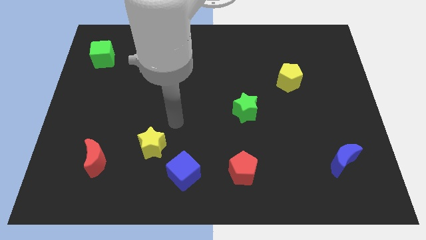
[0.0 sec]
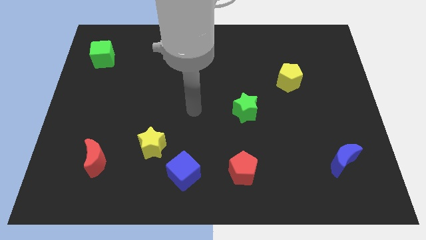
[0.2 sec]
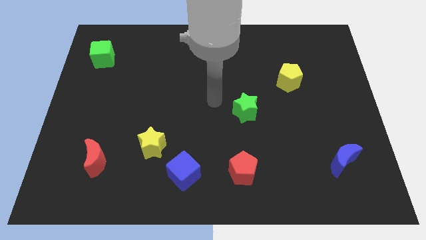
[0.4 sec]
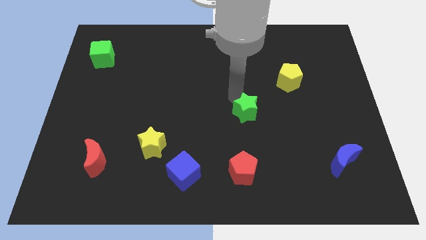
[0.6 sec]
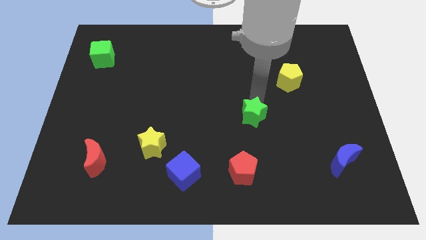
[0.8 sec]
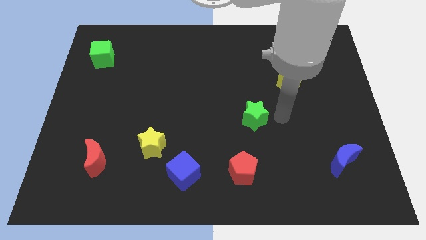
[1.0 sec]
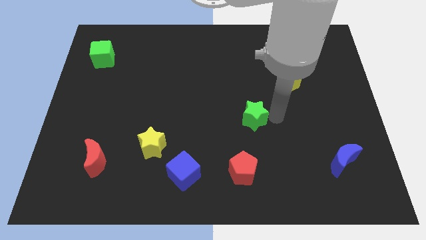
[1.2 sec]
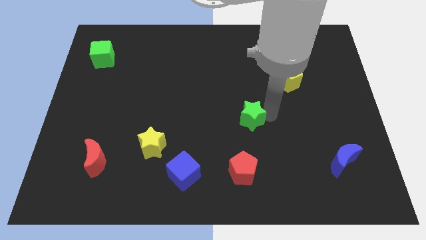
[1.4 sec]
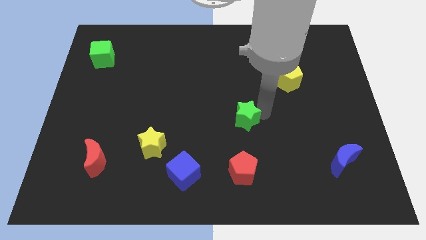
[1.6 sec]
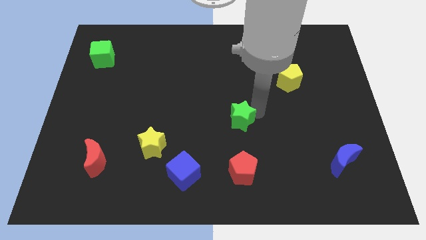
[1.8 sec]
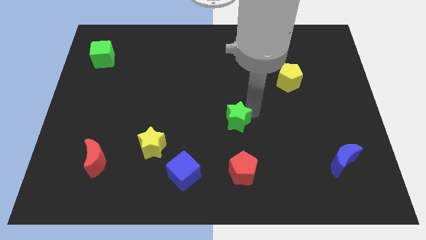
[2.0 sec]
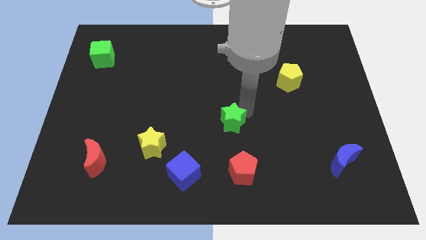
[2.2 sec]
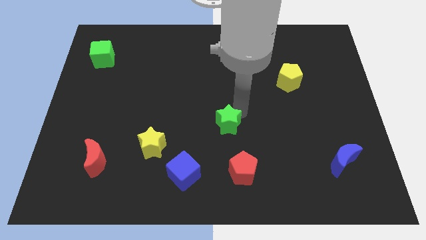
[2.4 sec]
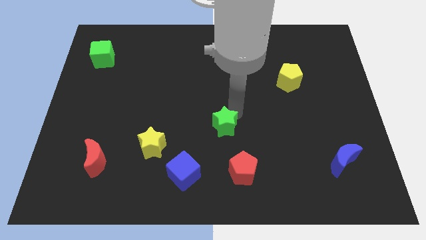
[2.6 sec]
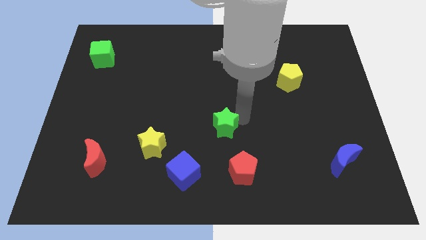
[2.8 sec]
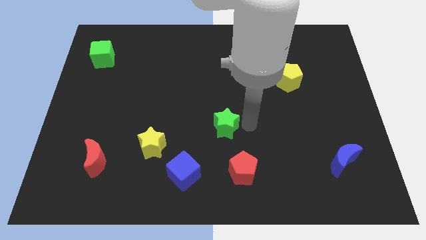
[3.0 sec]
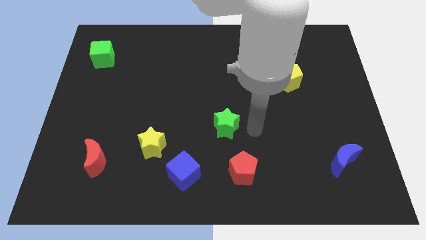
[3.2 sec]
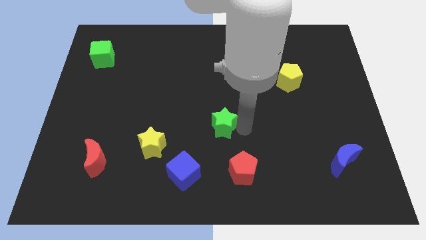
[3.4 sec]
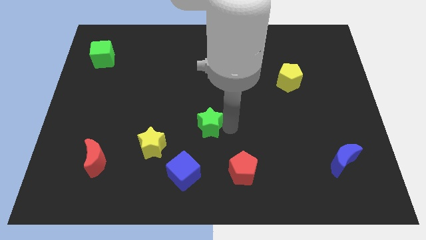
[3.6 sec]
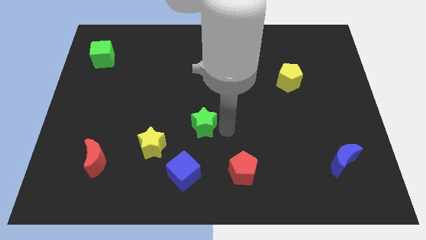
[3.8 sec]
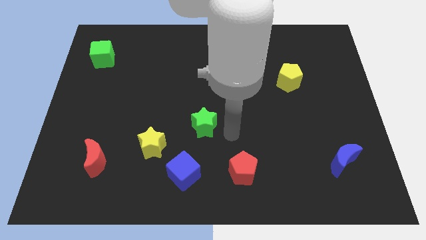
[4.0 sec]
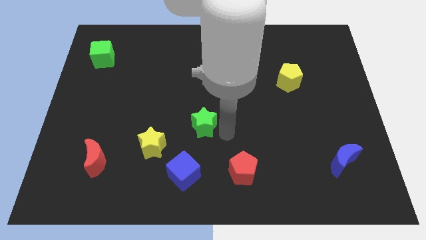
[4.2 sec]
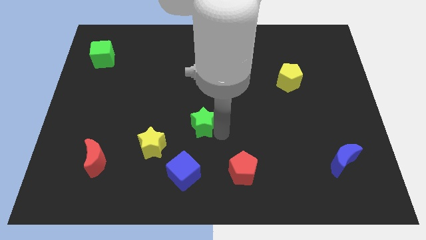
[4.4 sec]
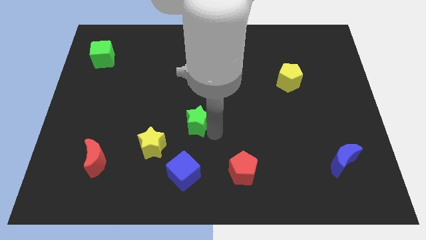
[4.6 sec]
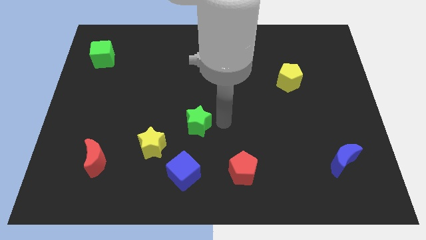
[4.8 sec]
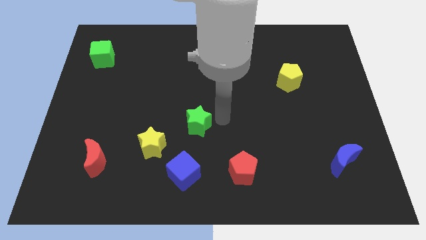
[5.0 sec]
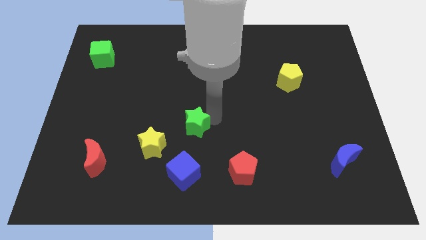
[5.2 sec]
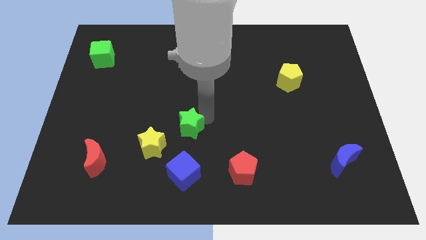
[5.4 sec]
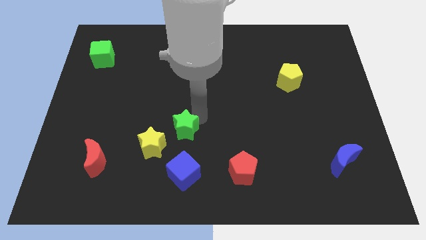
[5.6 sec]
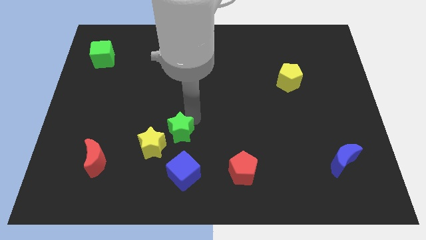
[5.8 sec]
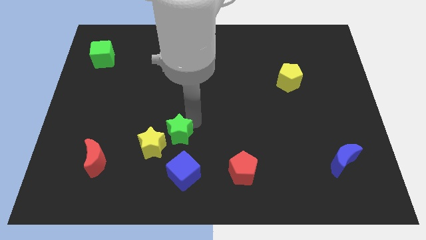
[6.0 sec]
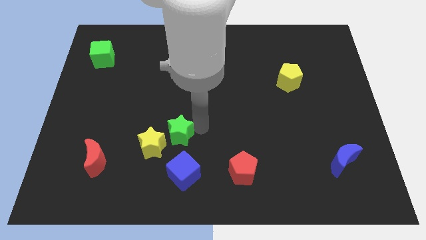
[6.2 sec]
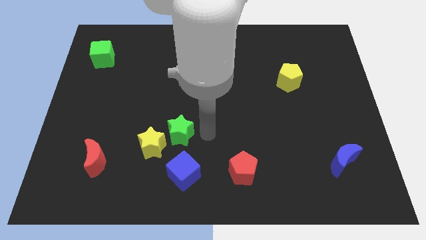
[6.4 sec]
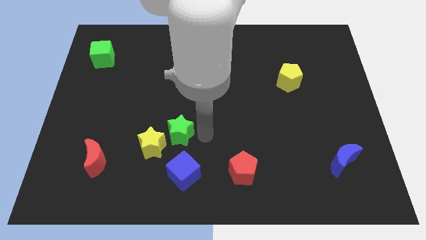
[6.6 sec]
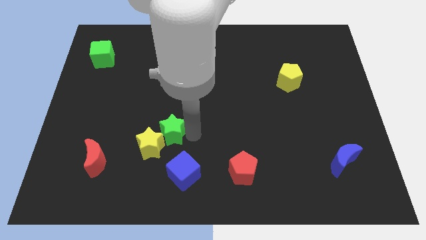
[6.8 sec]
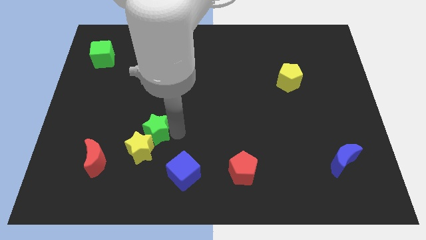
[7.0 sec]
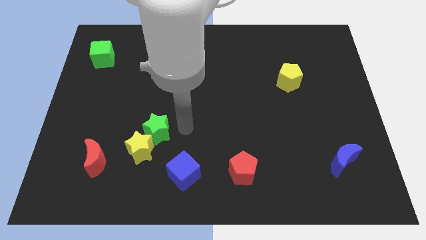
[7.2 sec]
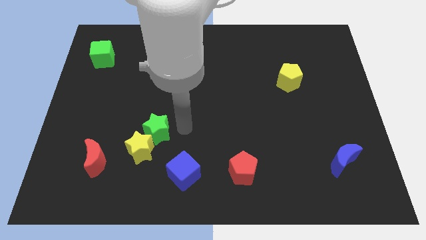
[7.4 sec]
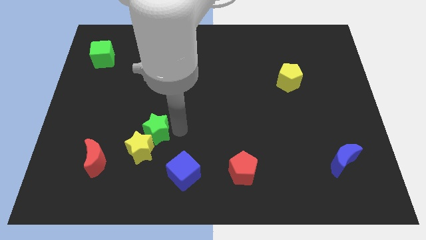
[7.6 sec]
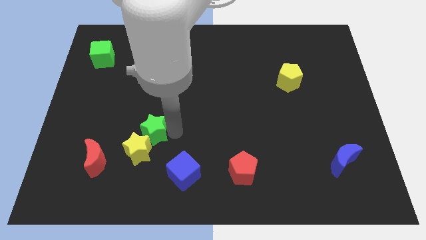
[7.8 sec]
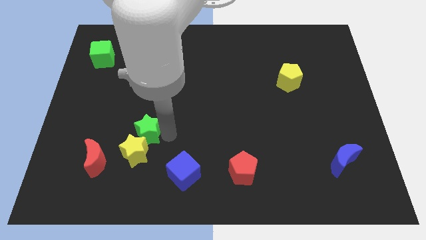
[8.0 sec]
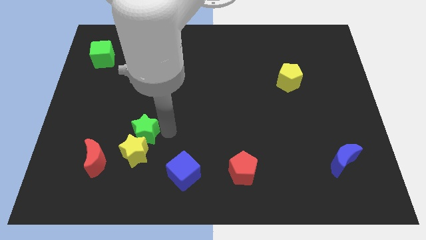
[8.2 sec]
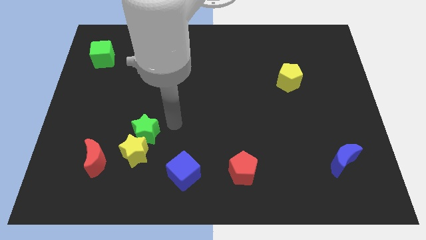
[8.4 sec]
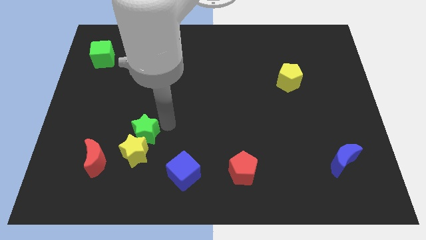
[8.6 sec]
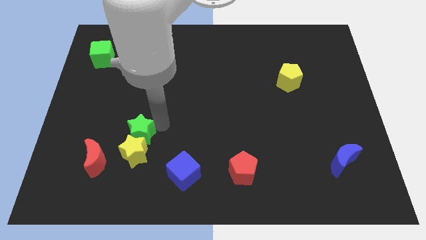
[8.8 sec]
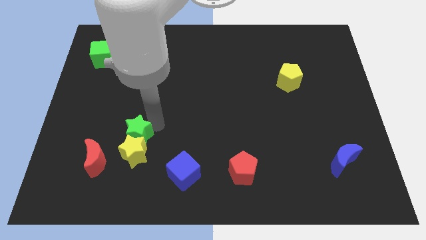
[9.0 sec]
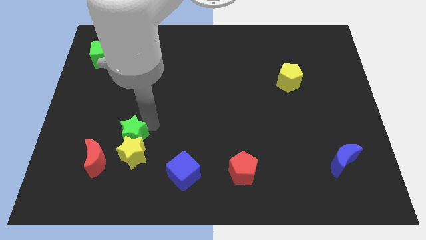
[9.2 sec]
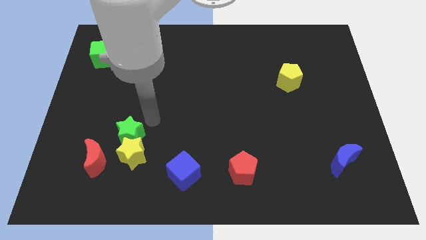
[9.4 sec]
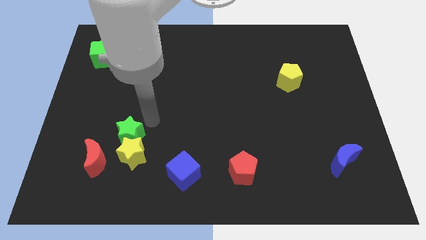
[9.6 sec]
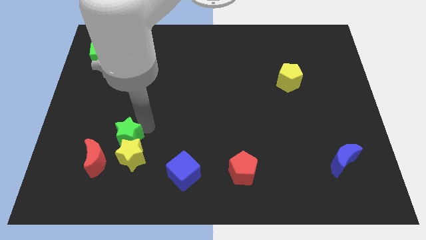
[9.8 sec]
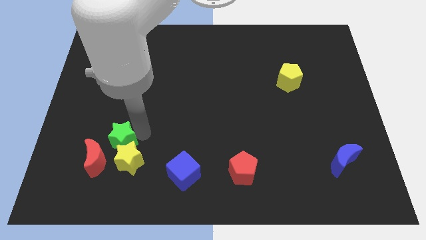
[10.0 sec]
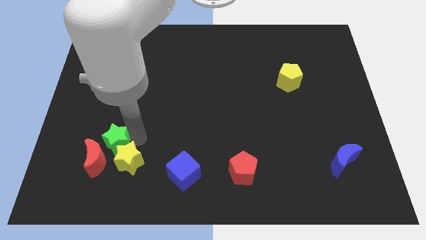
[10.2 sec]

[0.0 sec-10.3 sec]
slide the green star towards the red moon
